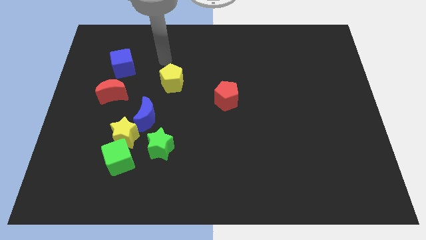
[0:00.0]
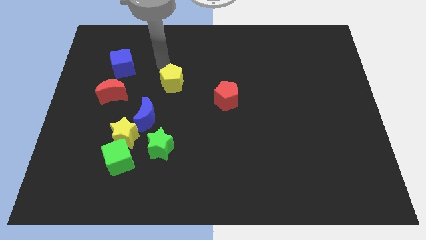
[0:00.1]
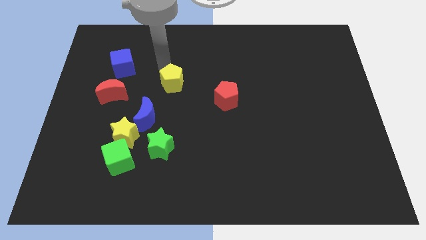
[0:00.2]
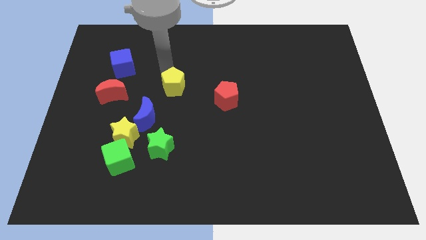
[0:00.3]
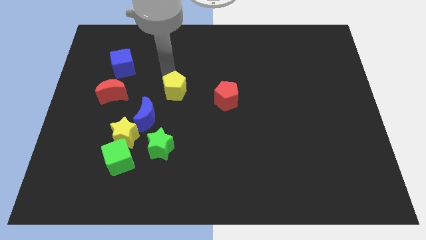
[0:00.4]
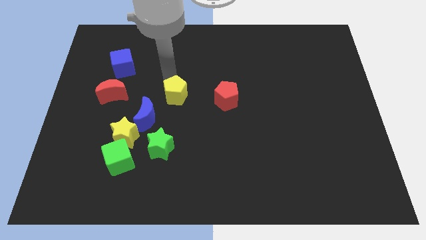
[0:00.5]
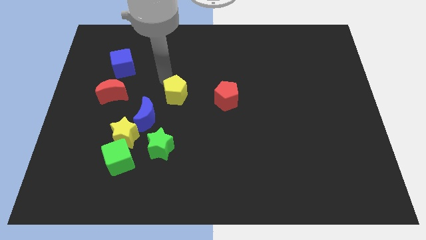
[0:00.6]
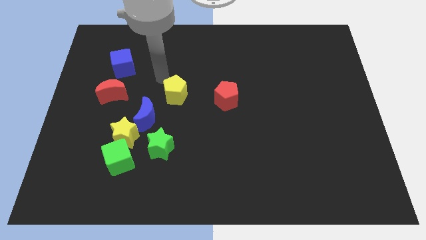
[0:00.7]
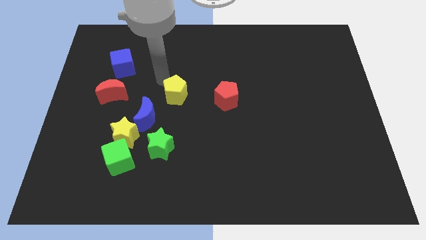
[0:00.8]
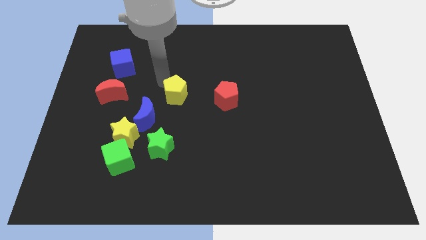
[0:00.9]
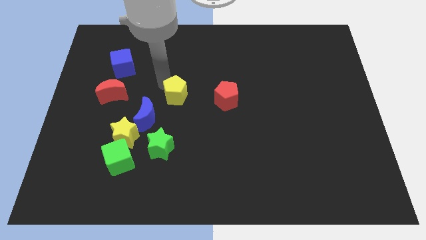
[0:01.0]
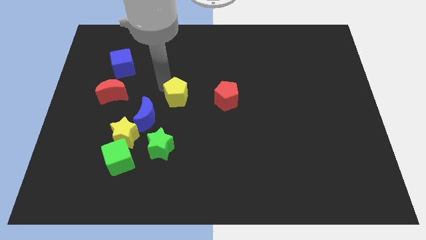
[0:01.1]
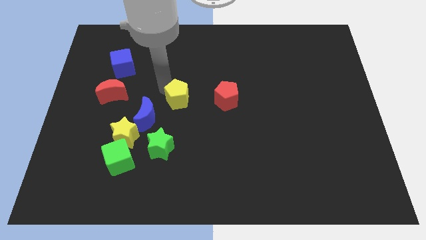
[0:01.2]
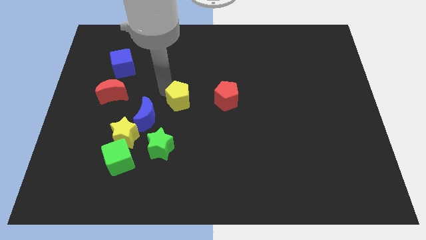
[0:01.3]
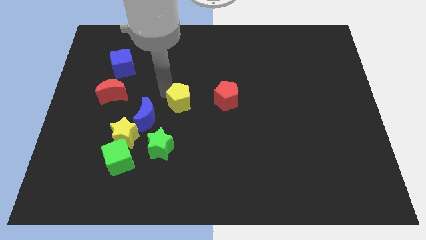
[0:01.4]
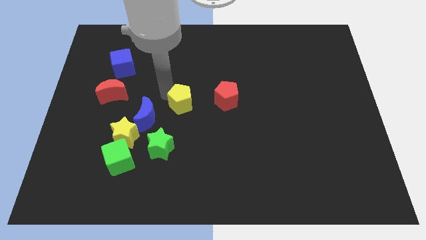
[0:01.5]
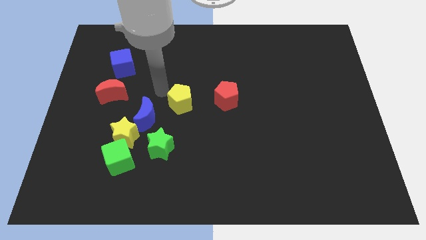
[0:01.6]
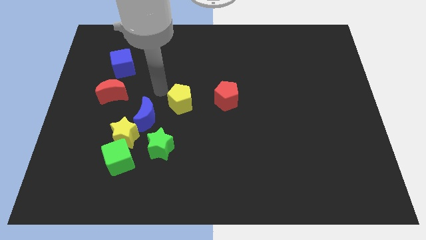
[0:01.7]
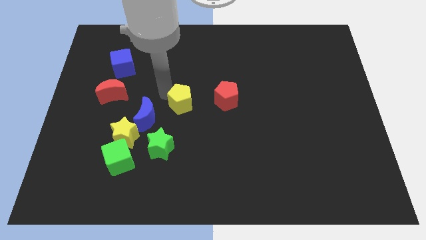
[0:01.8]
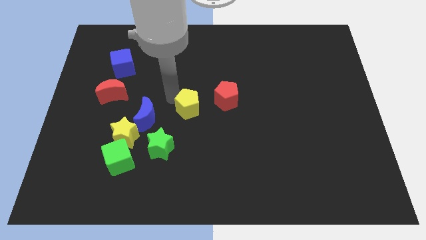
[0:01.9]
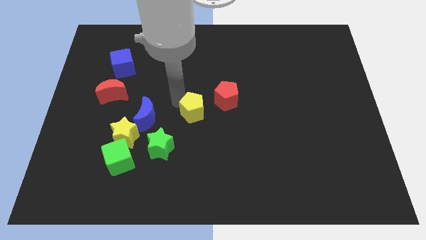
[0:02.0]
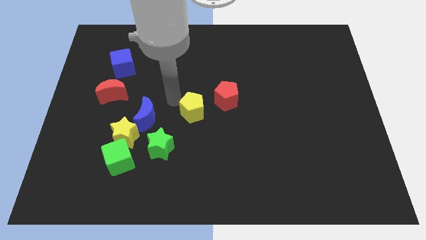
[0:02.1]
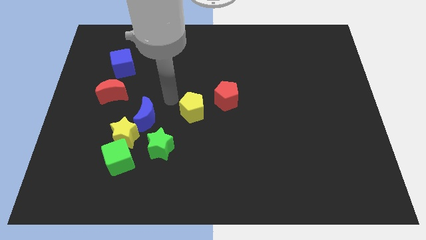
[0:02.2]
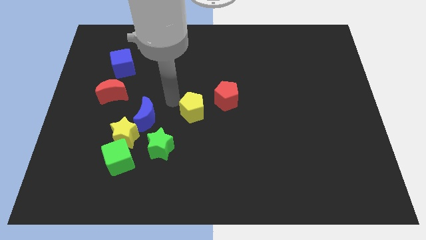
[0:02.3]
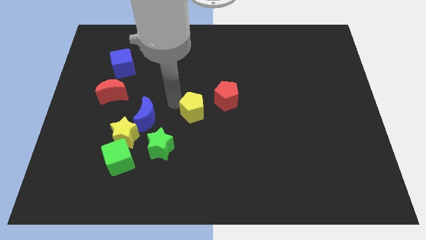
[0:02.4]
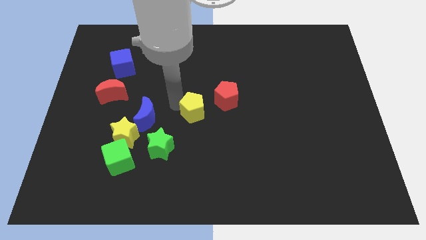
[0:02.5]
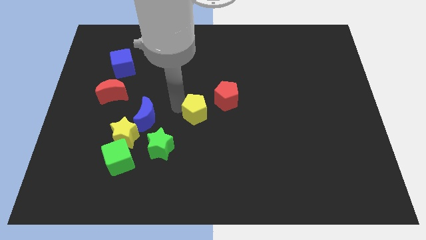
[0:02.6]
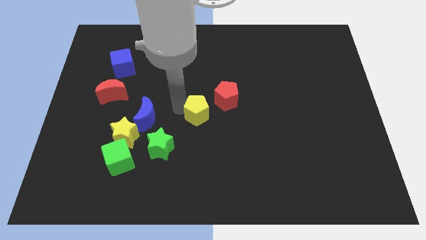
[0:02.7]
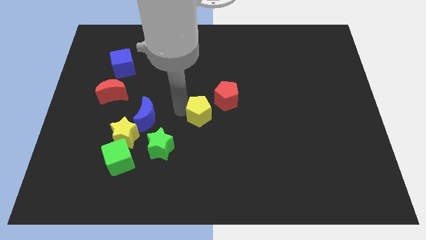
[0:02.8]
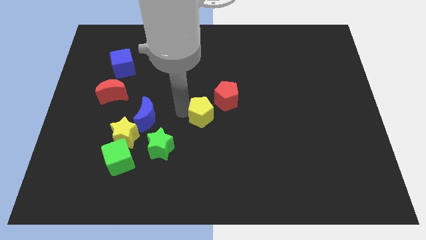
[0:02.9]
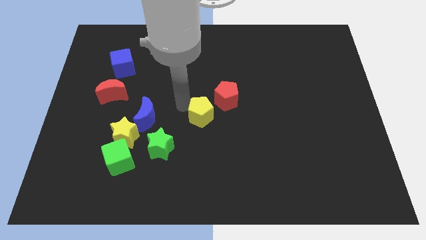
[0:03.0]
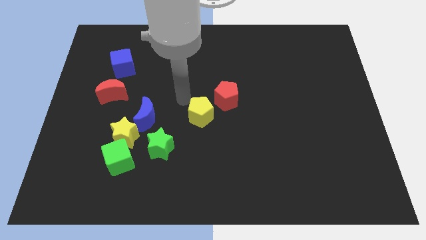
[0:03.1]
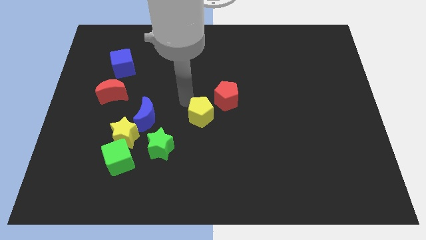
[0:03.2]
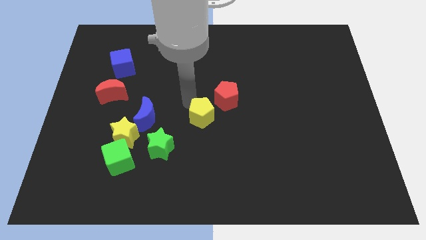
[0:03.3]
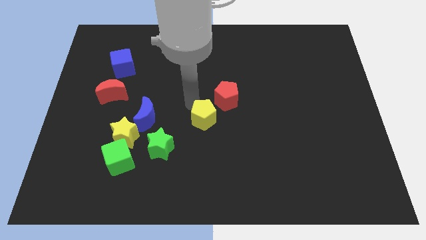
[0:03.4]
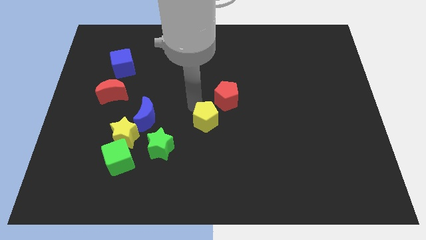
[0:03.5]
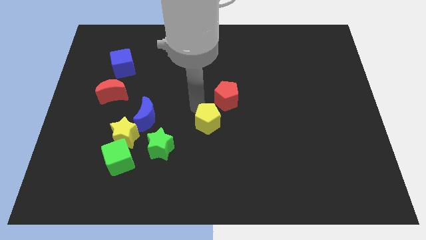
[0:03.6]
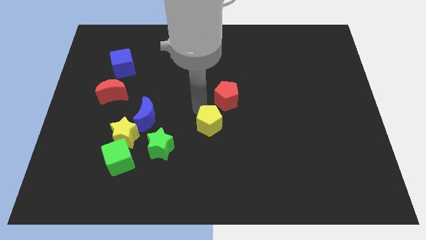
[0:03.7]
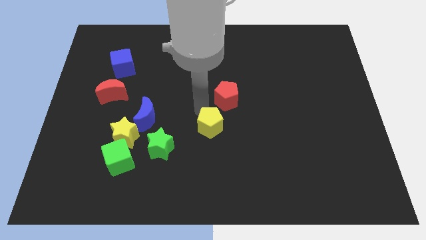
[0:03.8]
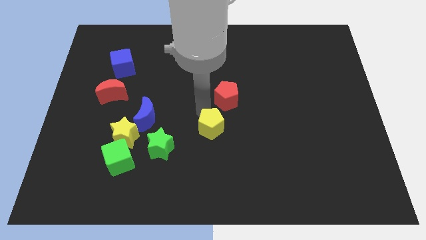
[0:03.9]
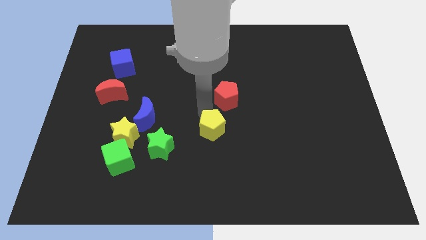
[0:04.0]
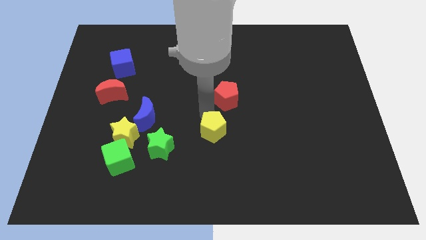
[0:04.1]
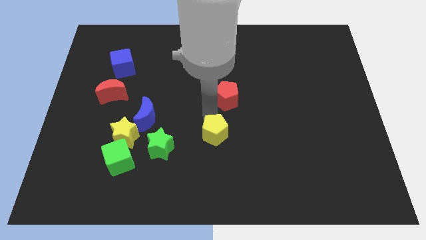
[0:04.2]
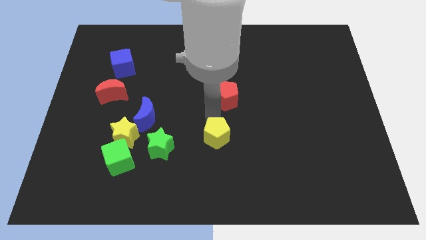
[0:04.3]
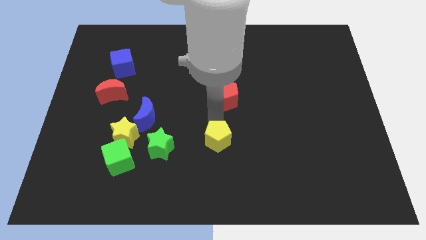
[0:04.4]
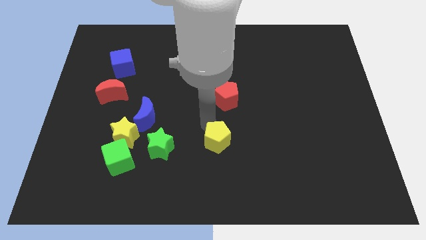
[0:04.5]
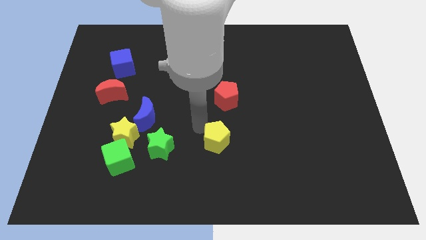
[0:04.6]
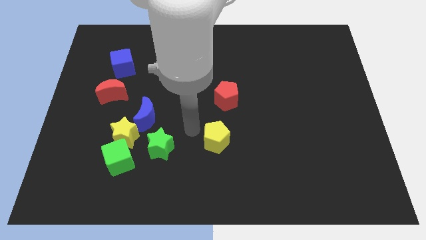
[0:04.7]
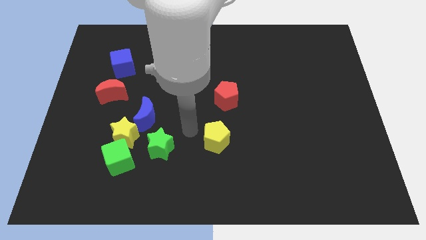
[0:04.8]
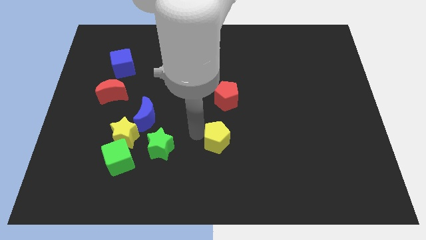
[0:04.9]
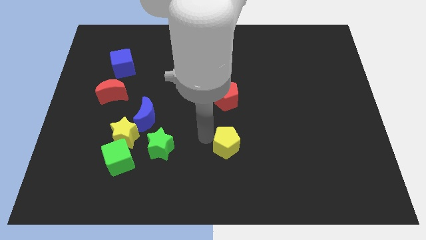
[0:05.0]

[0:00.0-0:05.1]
slide the yellow pentagon down and right diagonally

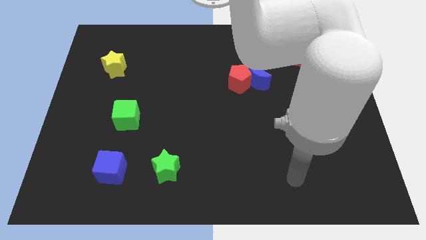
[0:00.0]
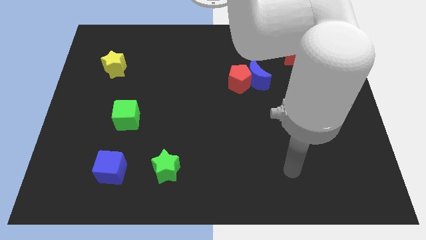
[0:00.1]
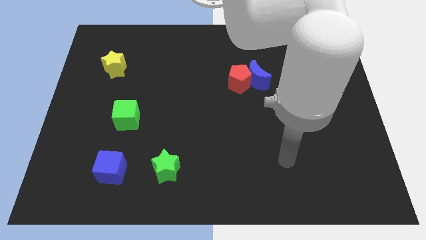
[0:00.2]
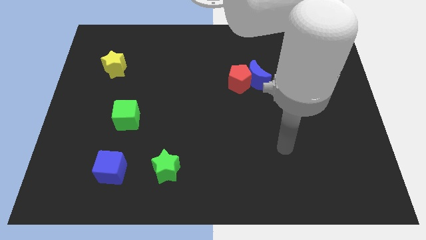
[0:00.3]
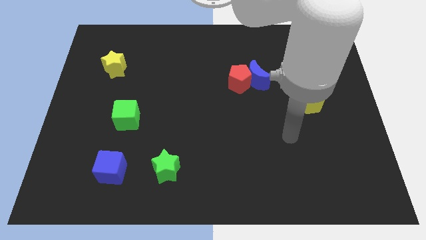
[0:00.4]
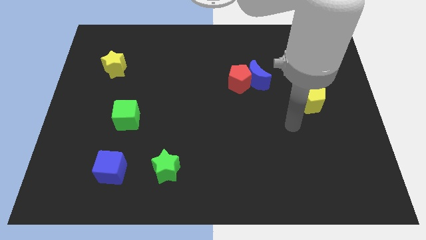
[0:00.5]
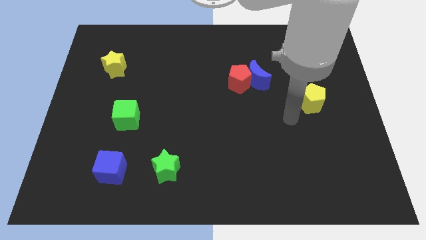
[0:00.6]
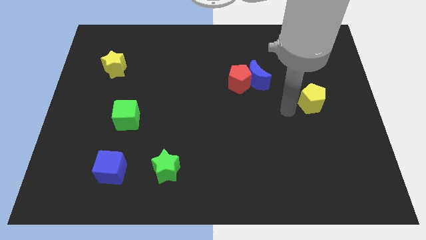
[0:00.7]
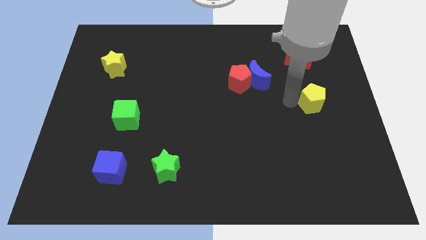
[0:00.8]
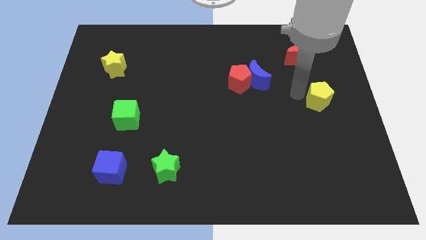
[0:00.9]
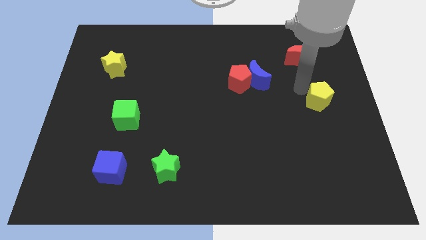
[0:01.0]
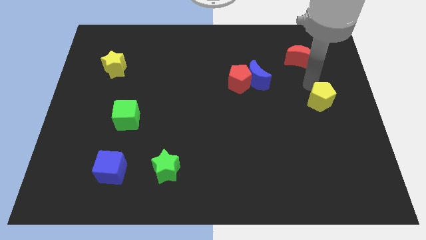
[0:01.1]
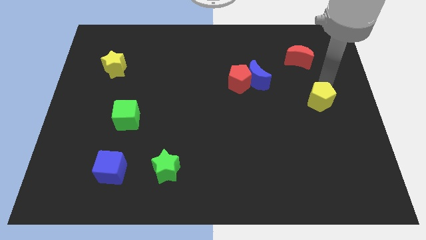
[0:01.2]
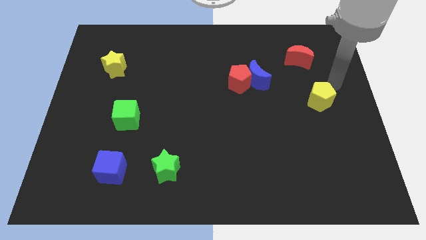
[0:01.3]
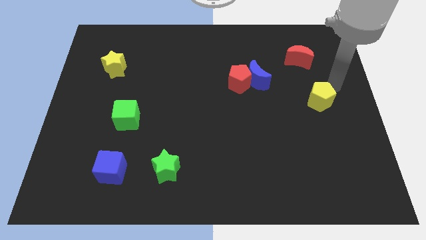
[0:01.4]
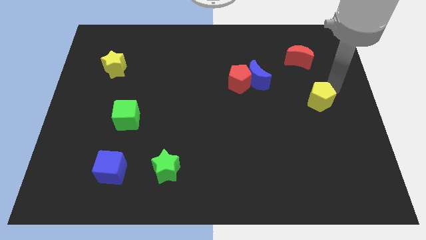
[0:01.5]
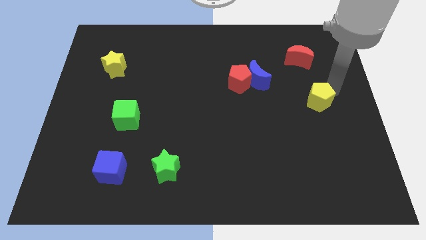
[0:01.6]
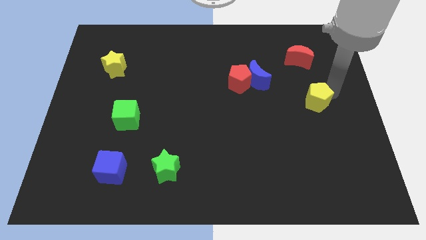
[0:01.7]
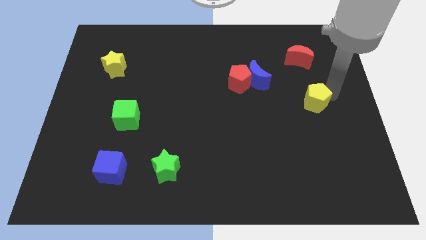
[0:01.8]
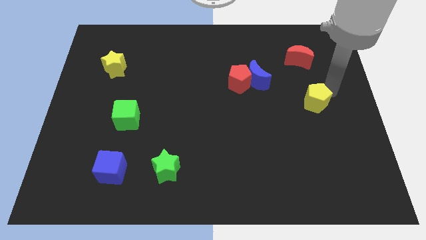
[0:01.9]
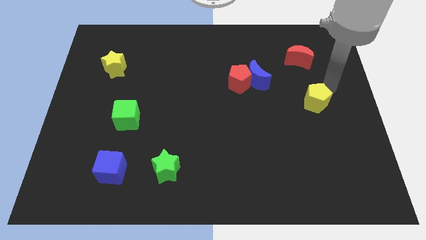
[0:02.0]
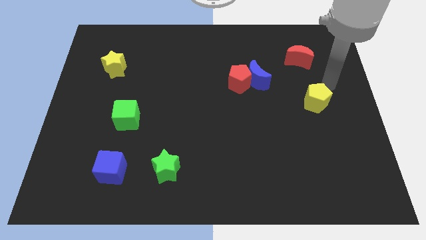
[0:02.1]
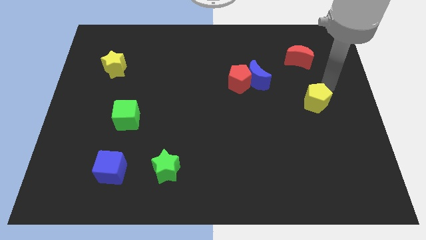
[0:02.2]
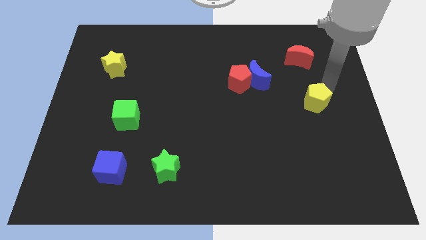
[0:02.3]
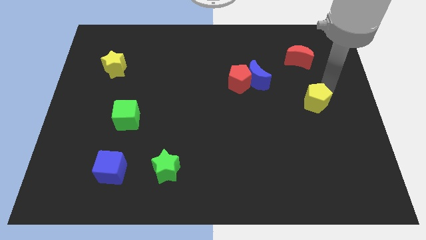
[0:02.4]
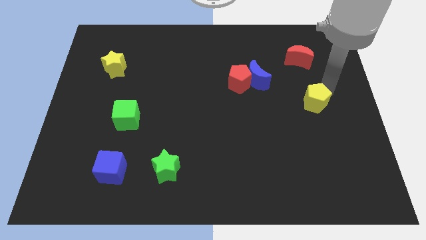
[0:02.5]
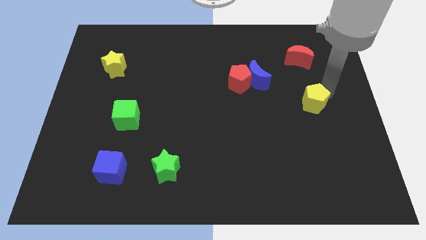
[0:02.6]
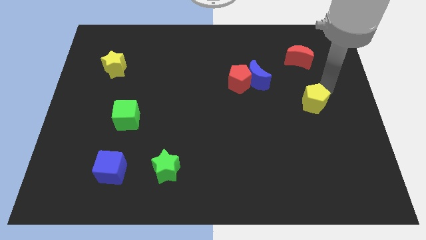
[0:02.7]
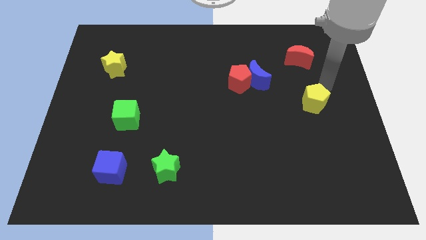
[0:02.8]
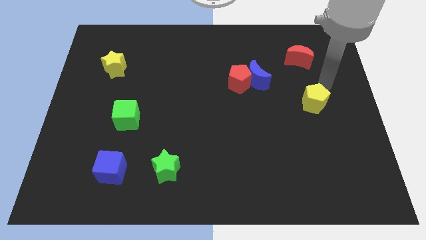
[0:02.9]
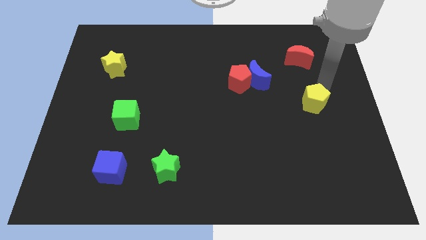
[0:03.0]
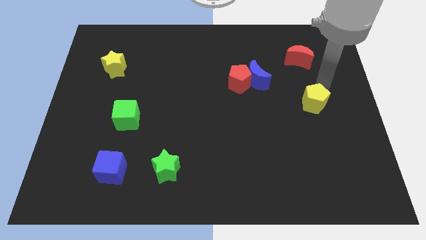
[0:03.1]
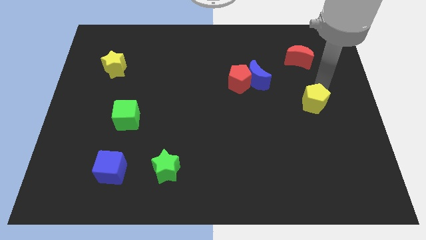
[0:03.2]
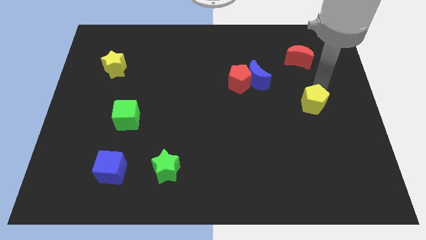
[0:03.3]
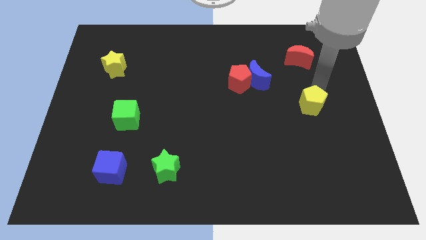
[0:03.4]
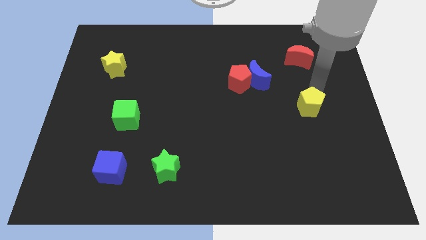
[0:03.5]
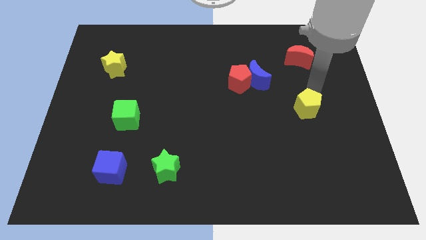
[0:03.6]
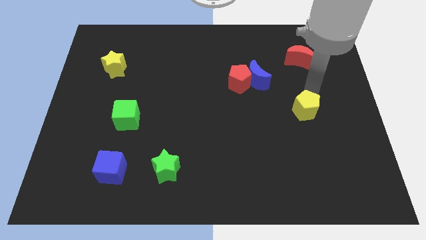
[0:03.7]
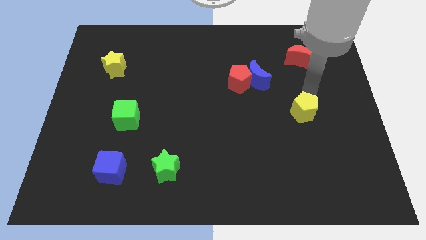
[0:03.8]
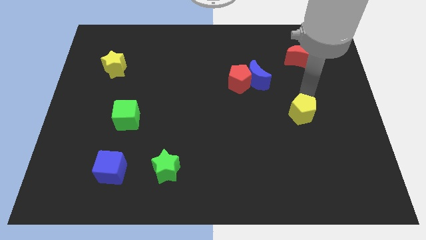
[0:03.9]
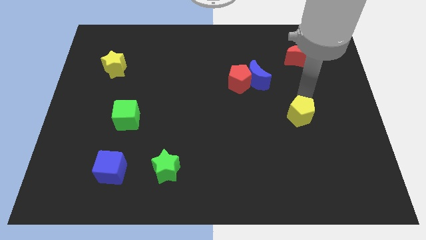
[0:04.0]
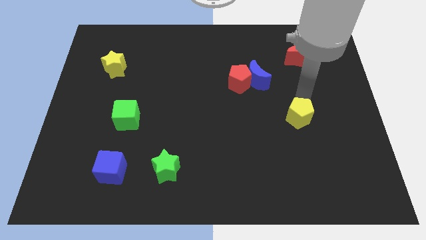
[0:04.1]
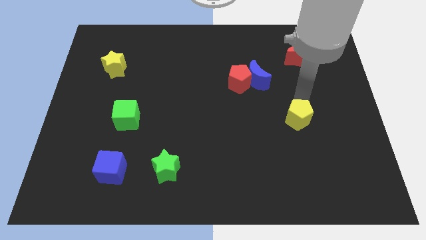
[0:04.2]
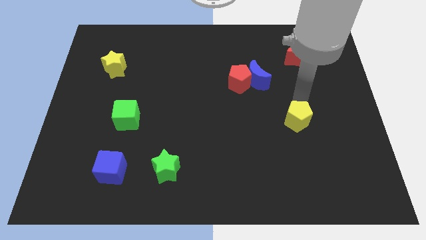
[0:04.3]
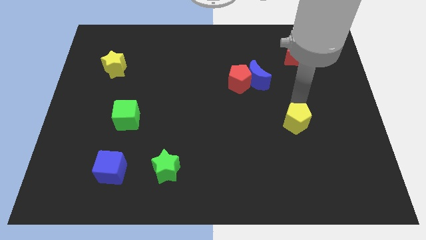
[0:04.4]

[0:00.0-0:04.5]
slightly push the yellow pentagon down and left diagonally
